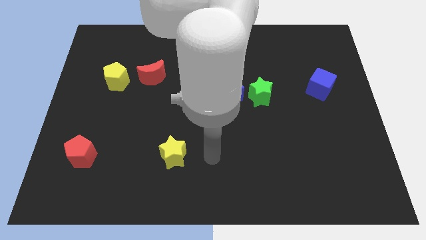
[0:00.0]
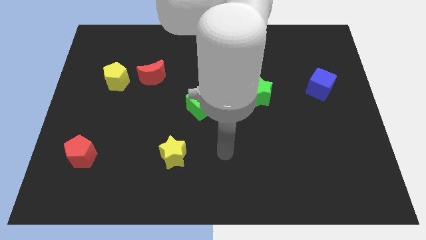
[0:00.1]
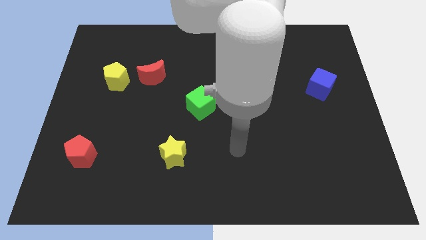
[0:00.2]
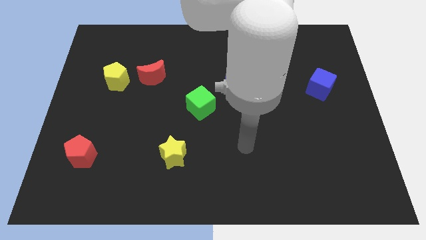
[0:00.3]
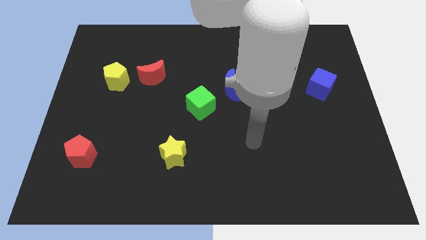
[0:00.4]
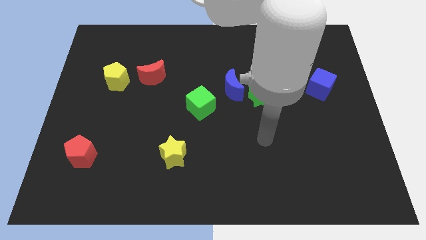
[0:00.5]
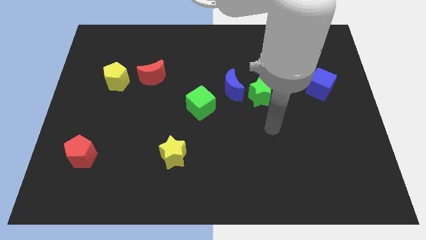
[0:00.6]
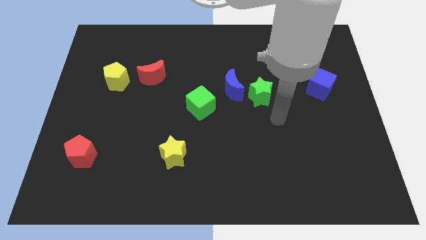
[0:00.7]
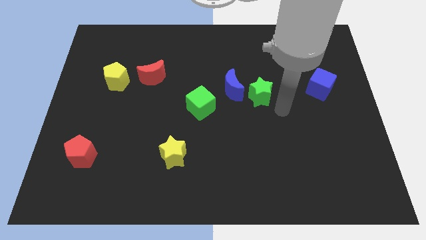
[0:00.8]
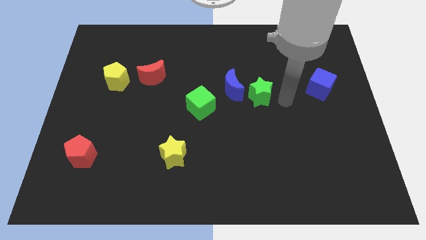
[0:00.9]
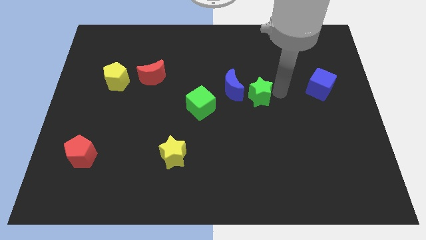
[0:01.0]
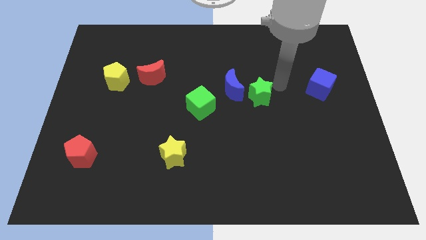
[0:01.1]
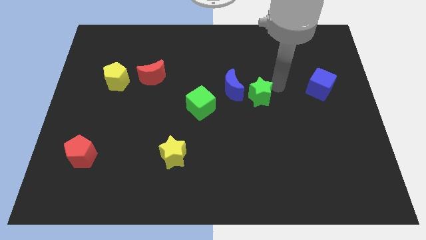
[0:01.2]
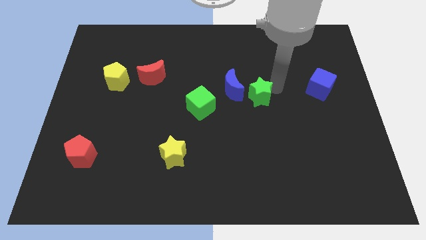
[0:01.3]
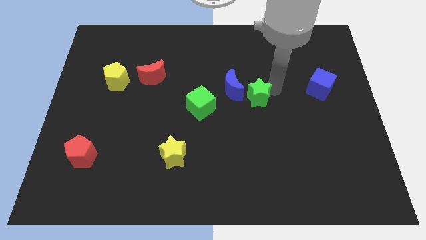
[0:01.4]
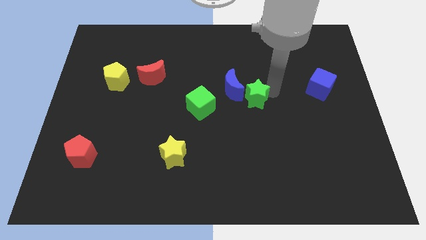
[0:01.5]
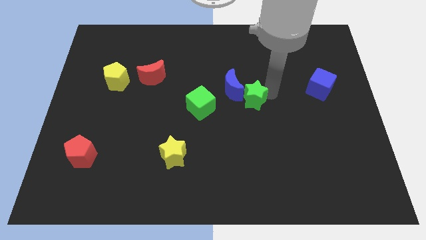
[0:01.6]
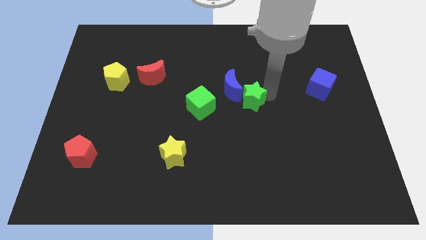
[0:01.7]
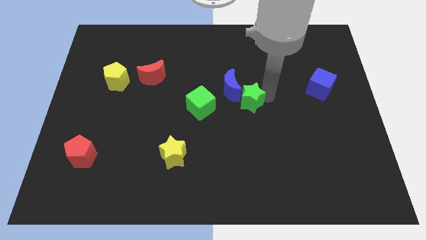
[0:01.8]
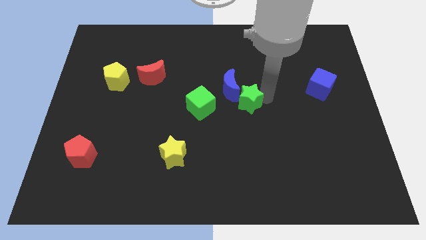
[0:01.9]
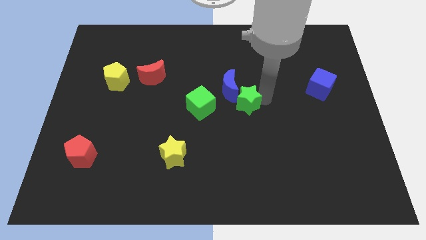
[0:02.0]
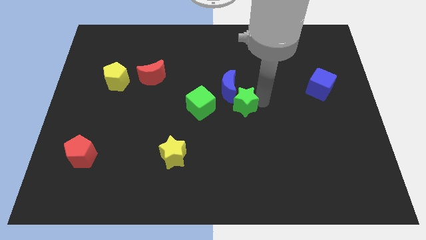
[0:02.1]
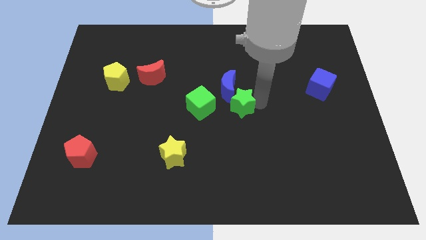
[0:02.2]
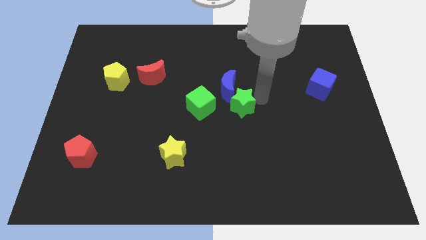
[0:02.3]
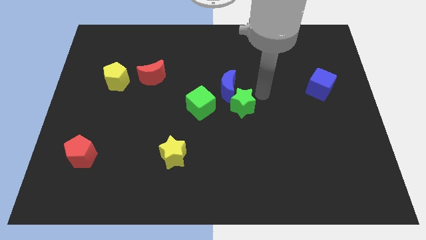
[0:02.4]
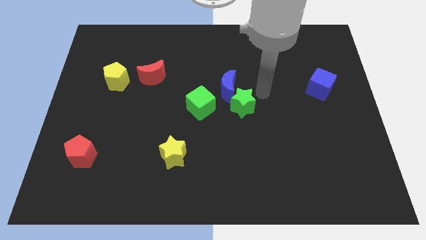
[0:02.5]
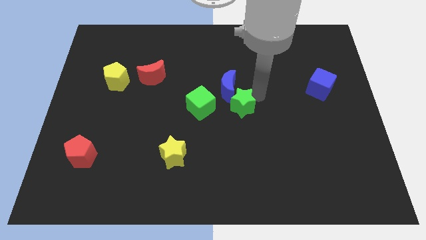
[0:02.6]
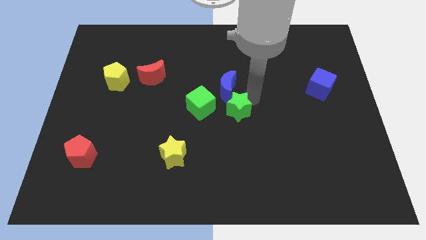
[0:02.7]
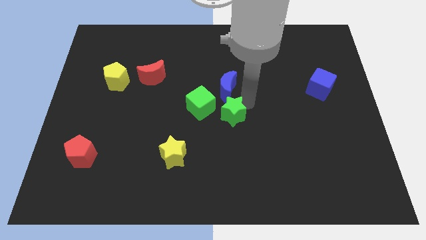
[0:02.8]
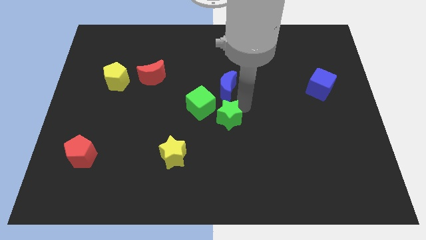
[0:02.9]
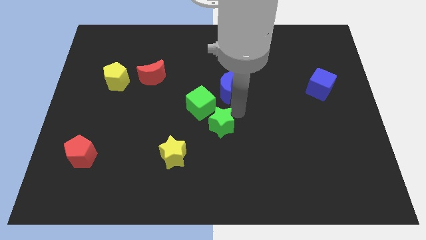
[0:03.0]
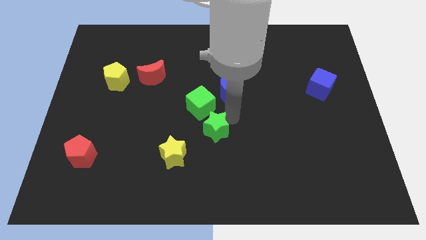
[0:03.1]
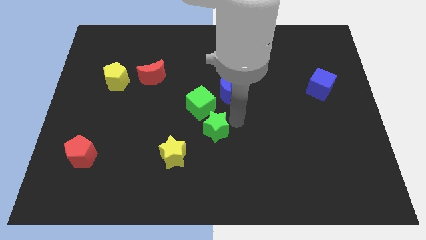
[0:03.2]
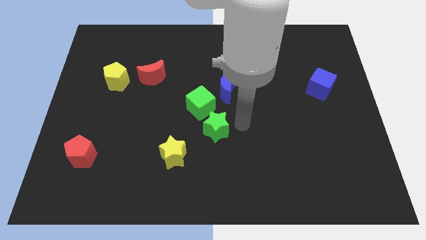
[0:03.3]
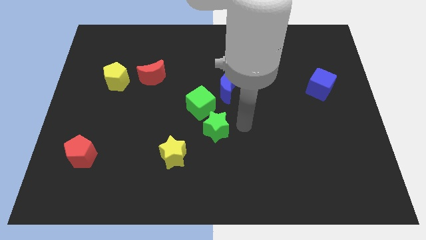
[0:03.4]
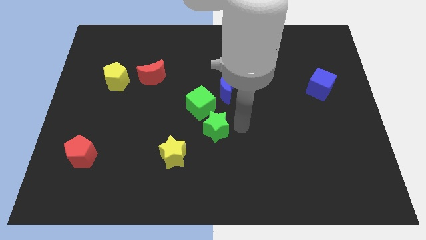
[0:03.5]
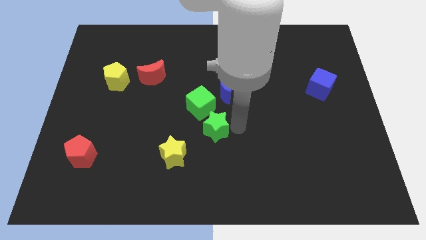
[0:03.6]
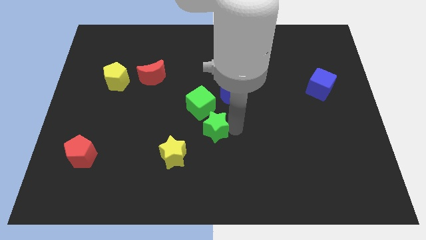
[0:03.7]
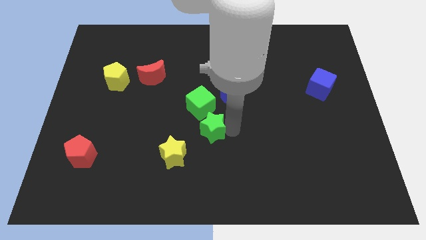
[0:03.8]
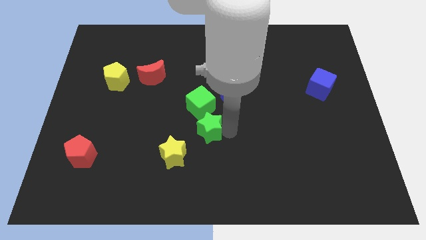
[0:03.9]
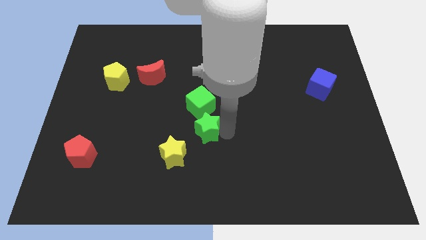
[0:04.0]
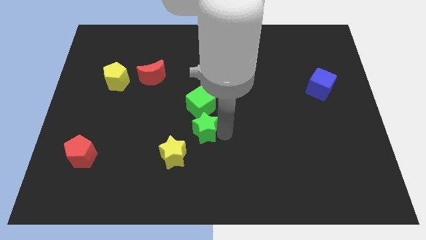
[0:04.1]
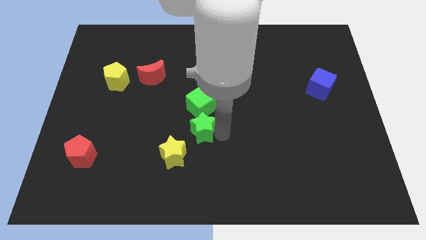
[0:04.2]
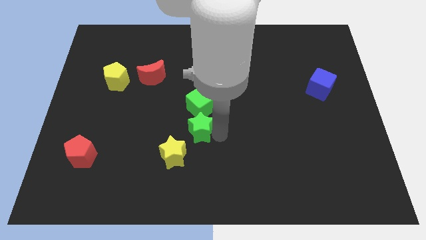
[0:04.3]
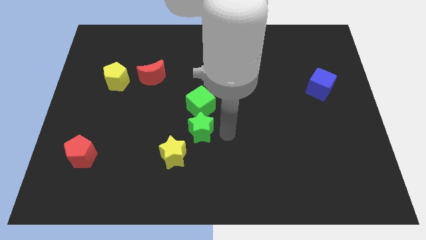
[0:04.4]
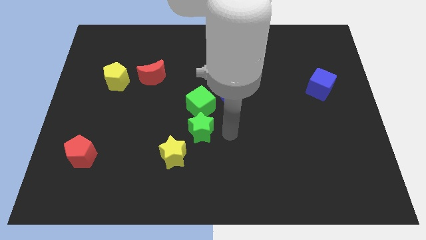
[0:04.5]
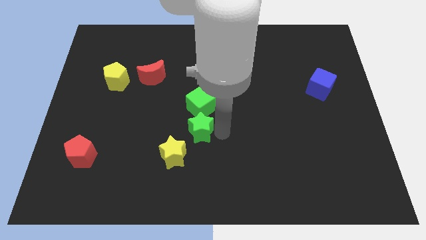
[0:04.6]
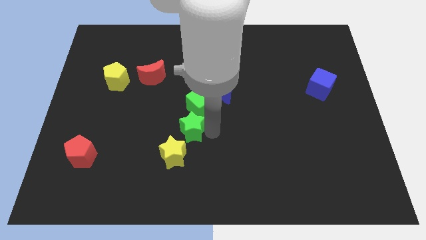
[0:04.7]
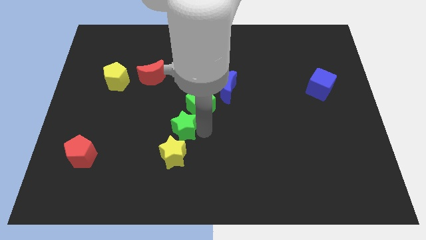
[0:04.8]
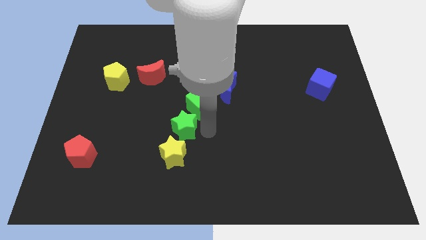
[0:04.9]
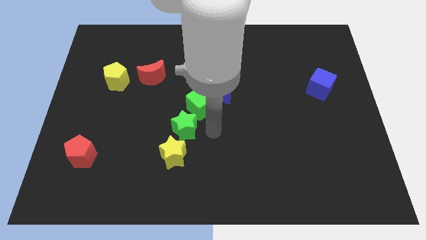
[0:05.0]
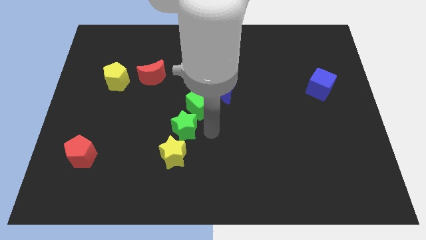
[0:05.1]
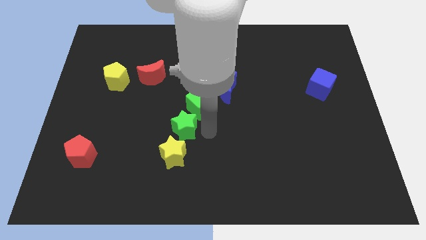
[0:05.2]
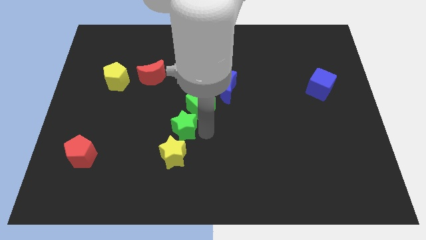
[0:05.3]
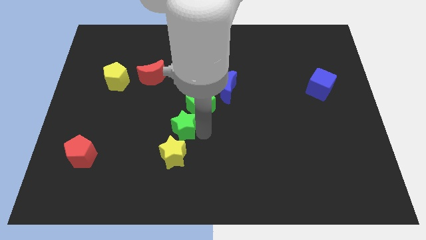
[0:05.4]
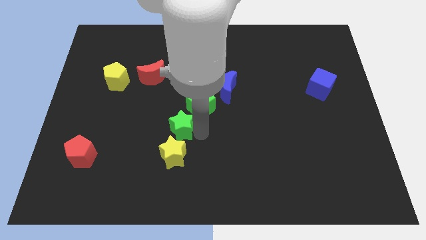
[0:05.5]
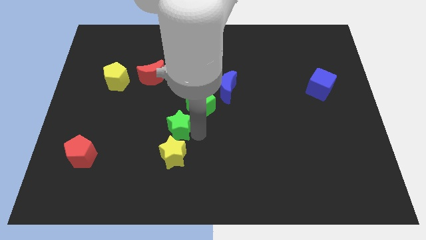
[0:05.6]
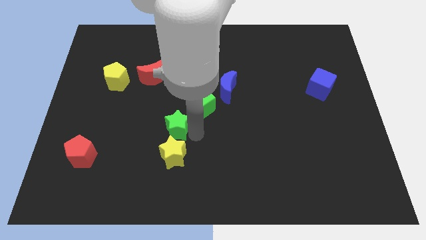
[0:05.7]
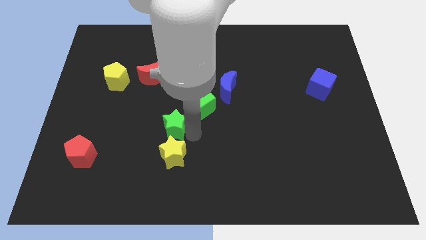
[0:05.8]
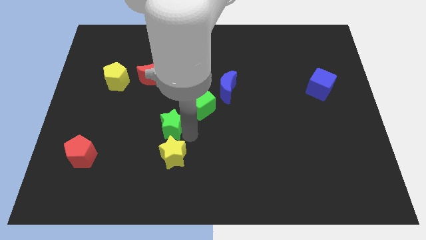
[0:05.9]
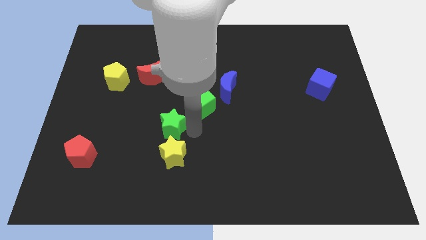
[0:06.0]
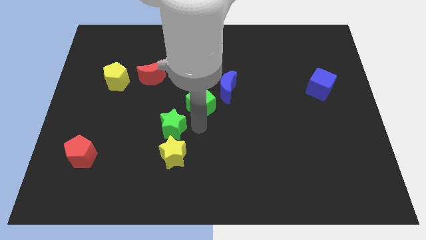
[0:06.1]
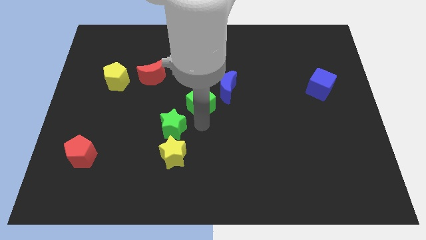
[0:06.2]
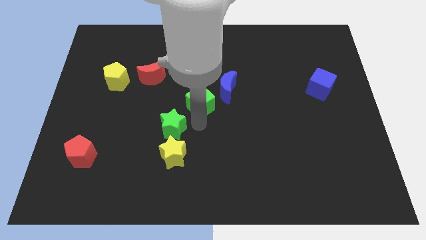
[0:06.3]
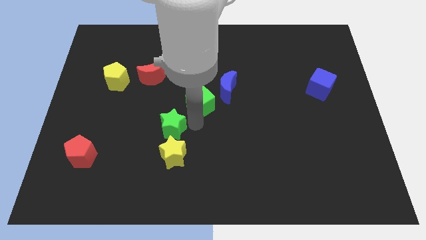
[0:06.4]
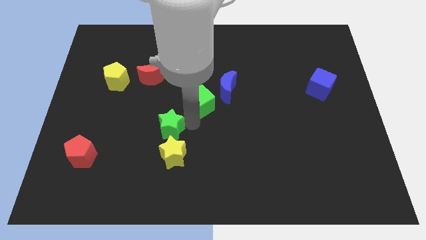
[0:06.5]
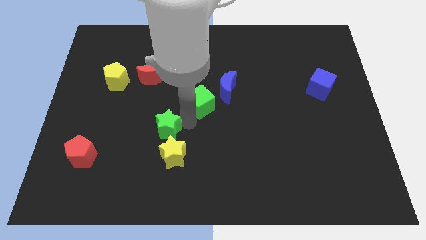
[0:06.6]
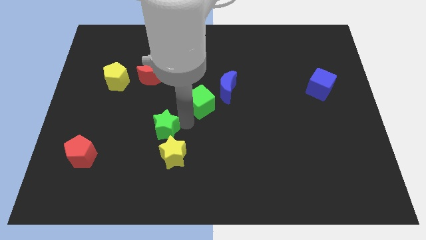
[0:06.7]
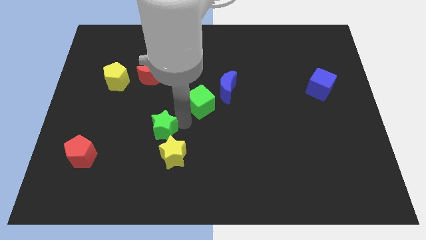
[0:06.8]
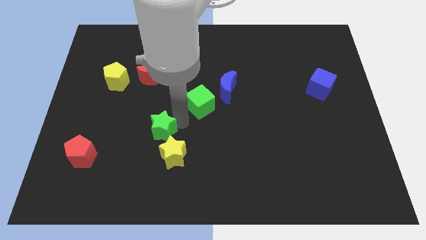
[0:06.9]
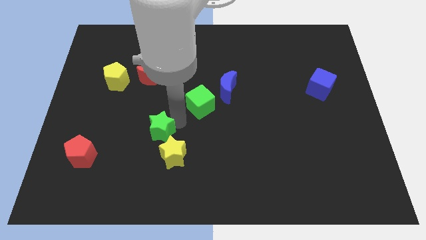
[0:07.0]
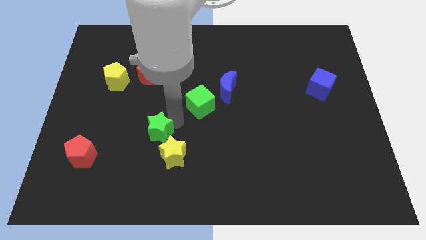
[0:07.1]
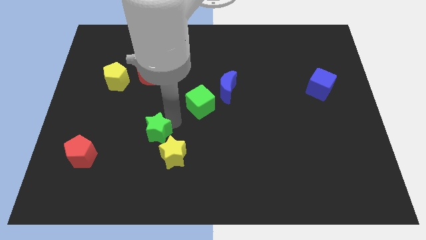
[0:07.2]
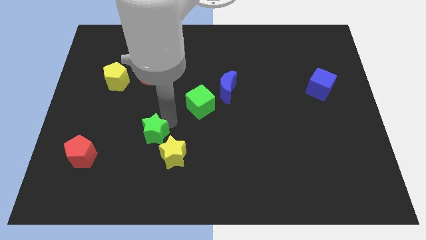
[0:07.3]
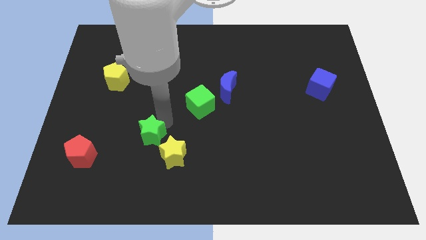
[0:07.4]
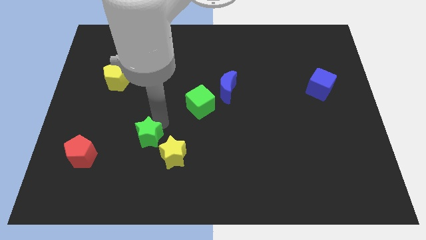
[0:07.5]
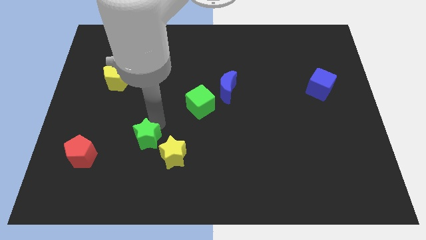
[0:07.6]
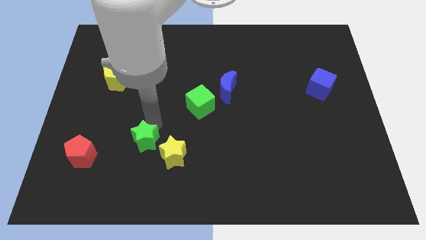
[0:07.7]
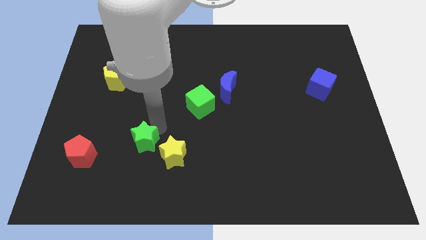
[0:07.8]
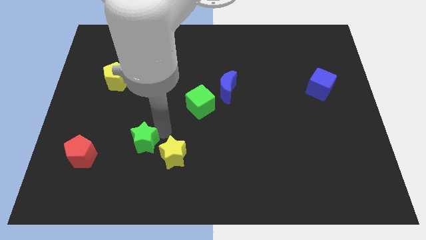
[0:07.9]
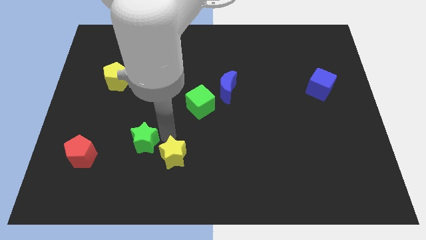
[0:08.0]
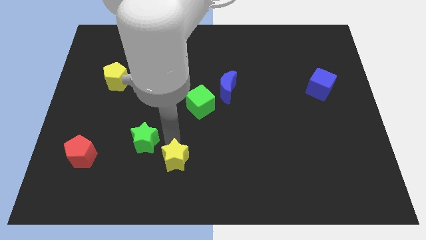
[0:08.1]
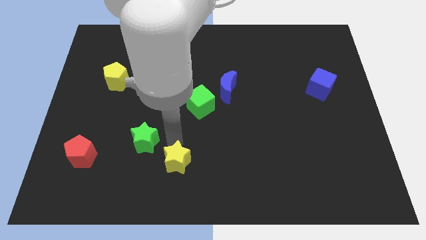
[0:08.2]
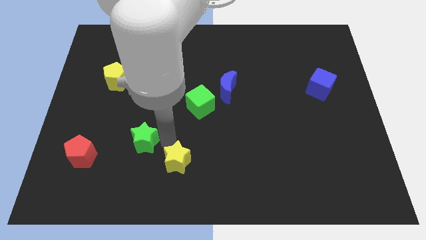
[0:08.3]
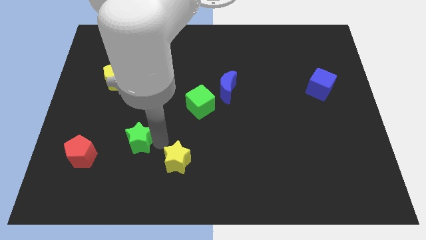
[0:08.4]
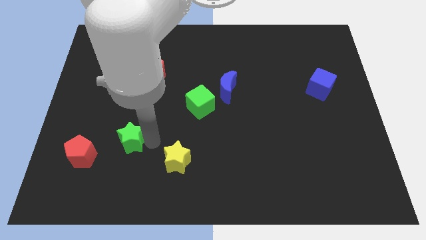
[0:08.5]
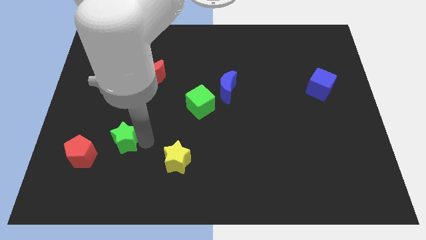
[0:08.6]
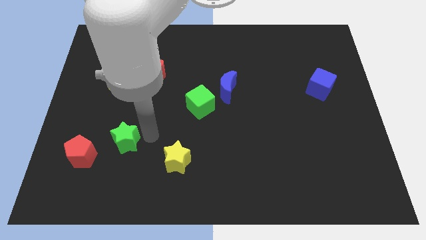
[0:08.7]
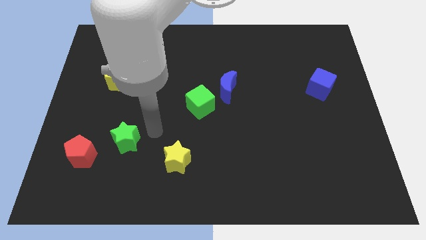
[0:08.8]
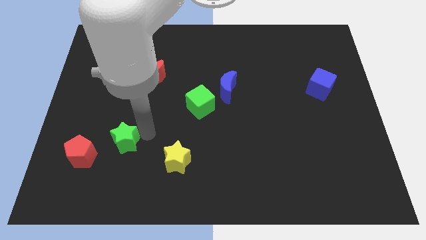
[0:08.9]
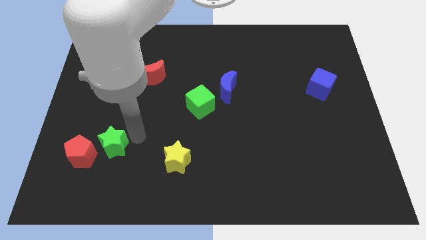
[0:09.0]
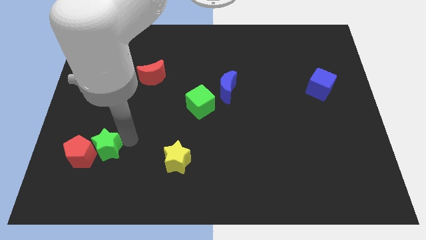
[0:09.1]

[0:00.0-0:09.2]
move the green star to the red pentagon
